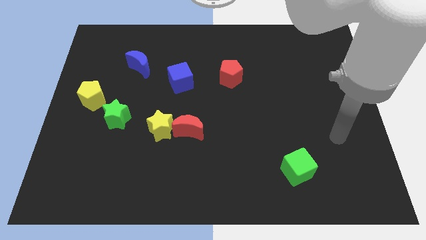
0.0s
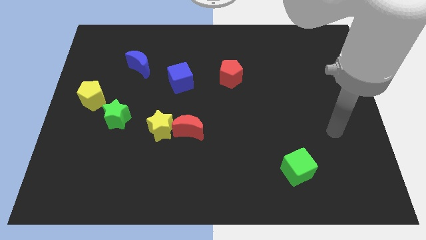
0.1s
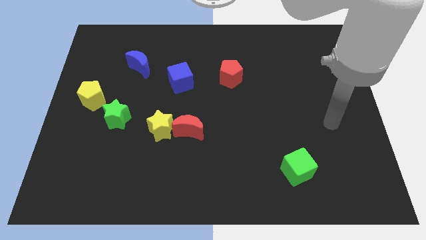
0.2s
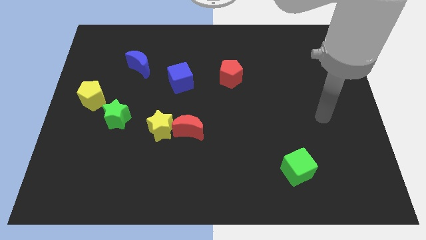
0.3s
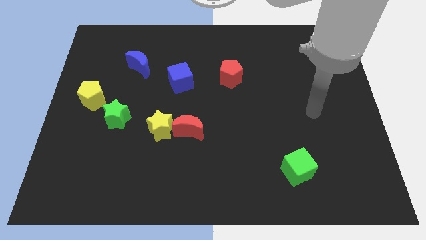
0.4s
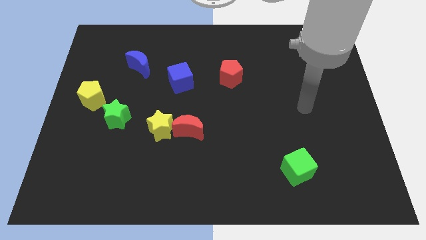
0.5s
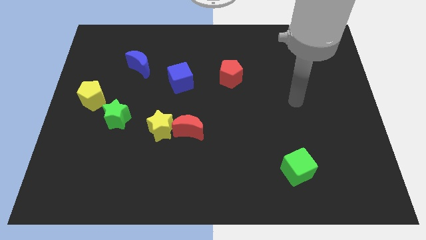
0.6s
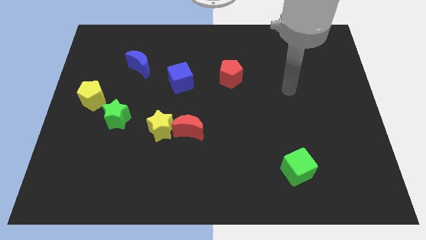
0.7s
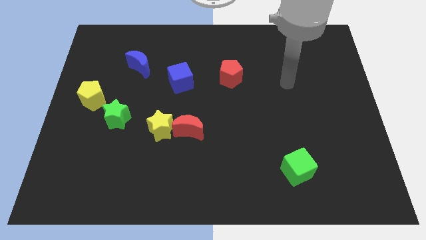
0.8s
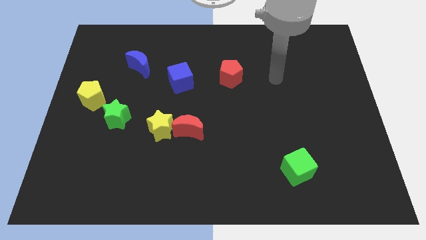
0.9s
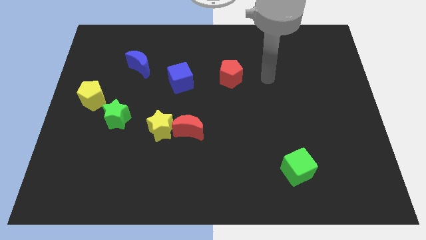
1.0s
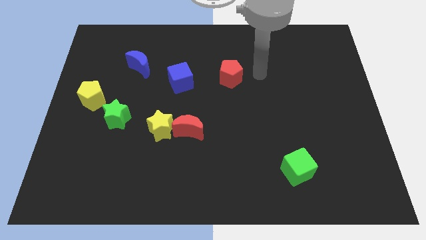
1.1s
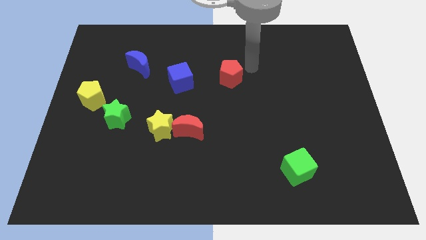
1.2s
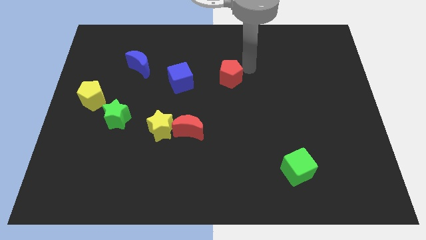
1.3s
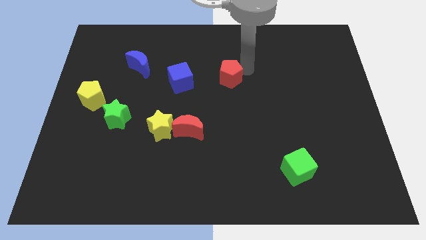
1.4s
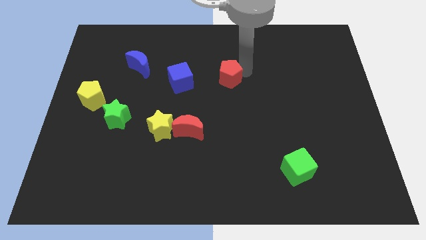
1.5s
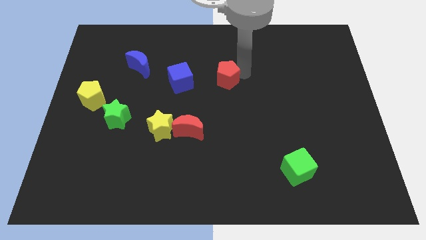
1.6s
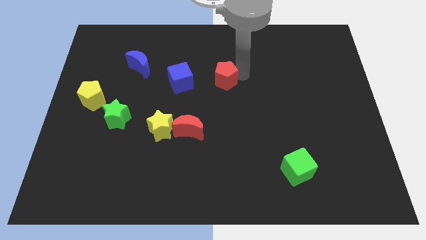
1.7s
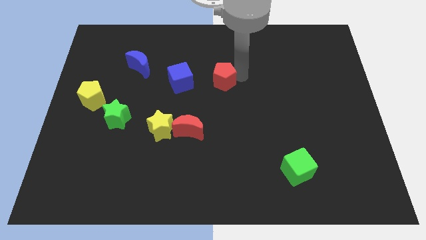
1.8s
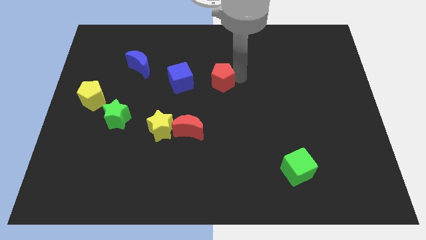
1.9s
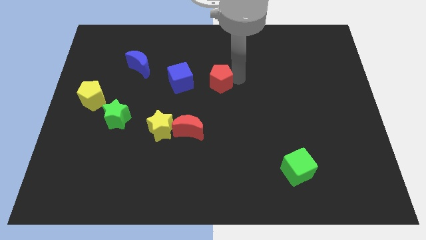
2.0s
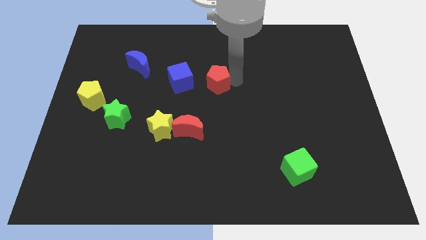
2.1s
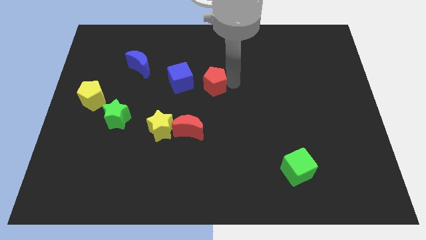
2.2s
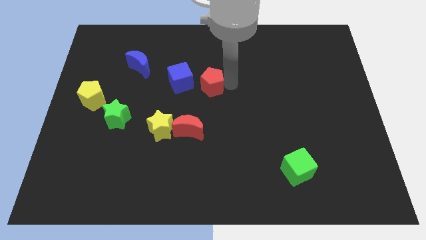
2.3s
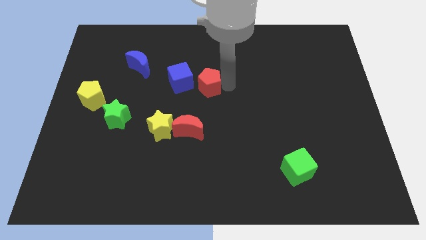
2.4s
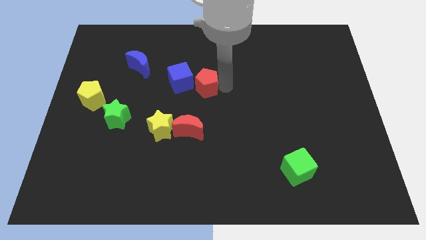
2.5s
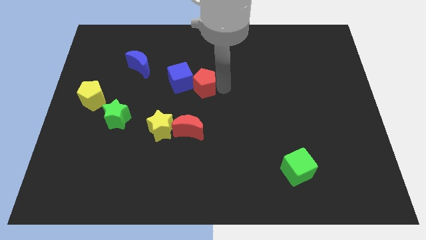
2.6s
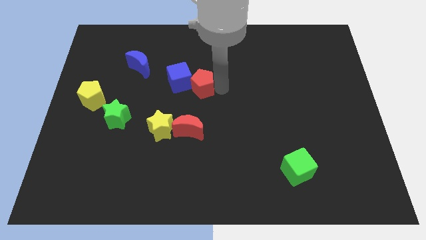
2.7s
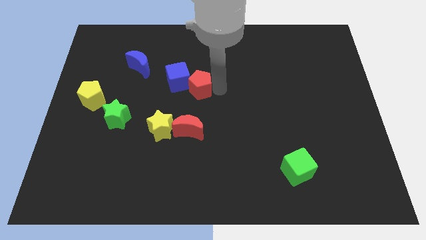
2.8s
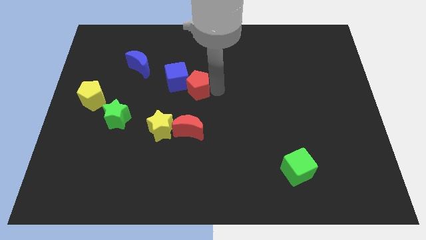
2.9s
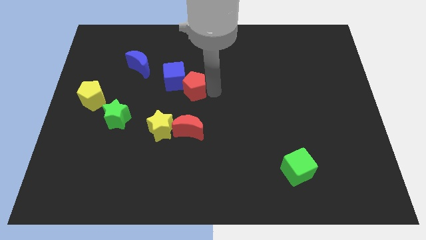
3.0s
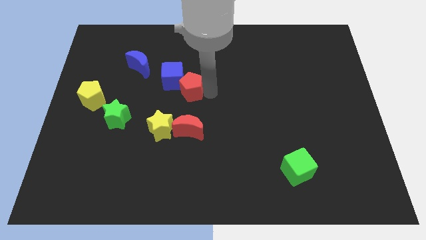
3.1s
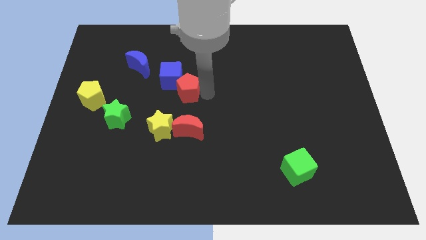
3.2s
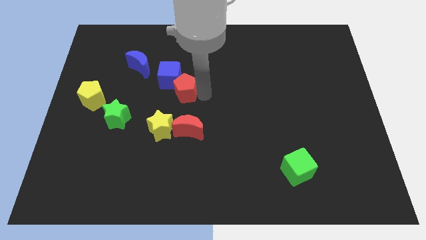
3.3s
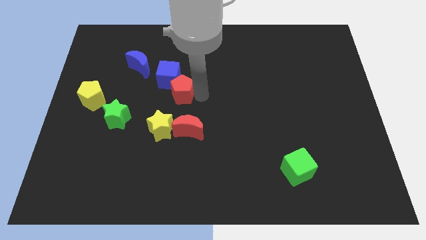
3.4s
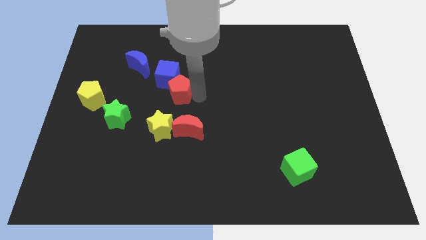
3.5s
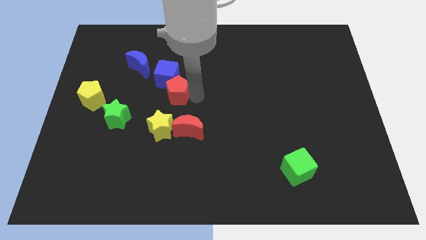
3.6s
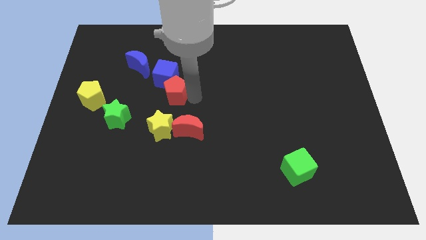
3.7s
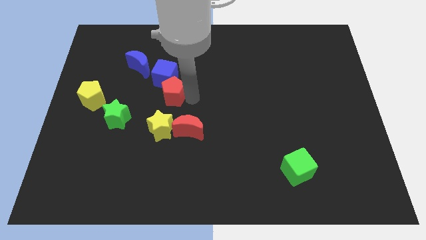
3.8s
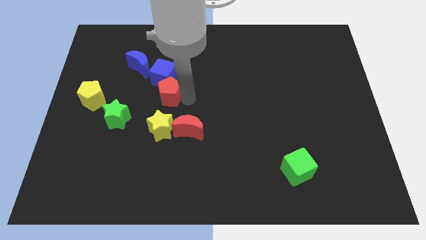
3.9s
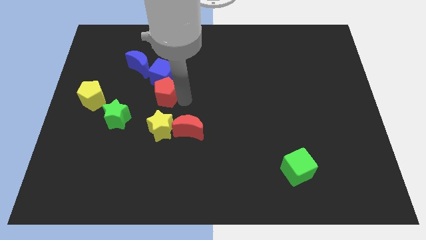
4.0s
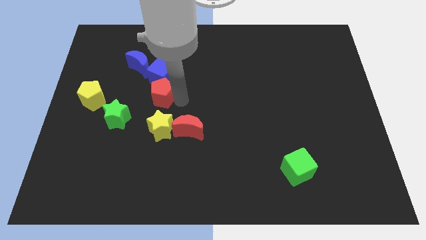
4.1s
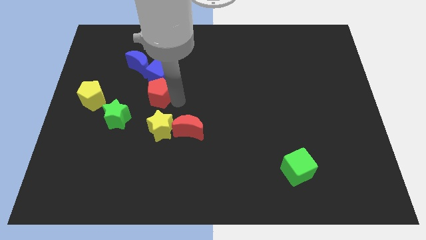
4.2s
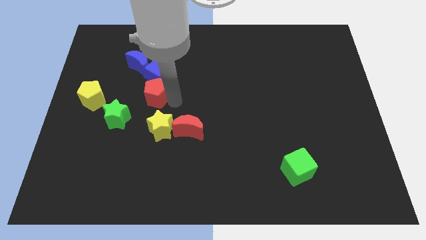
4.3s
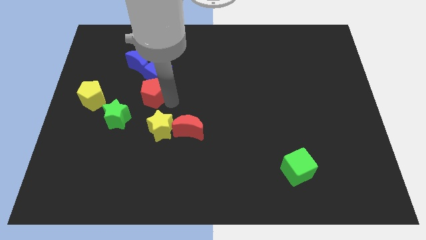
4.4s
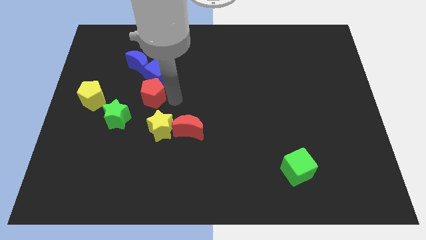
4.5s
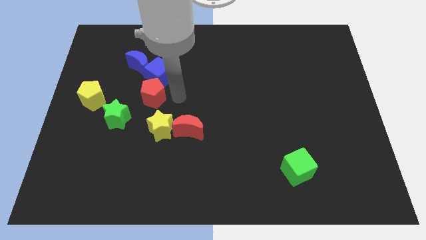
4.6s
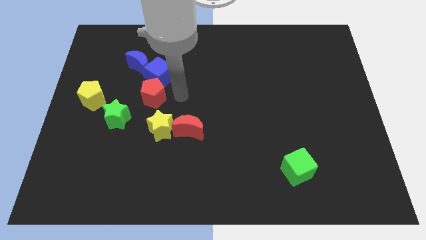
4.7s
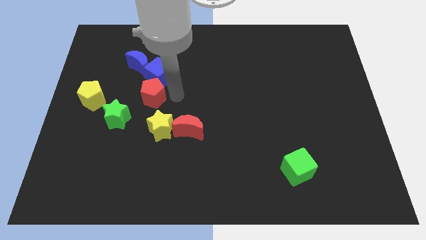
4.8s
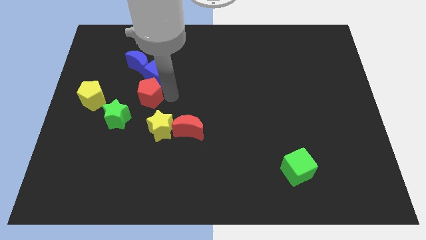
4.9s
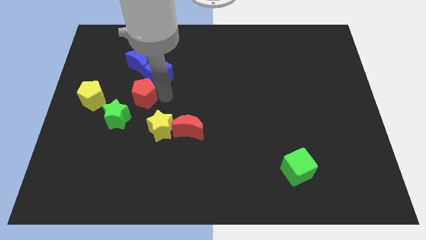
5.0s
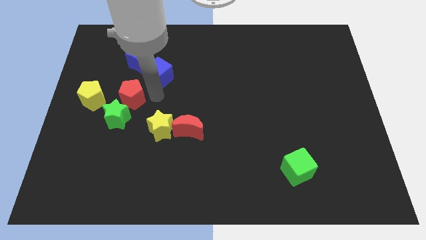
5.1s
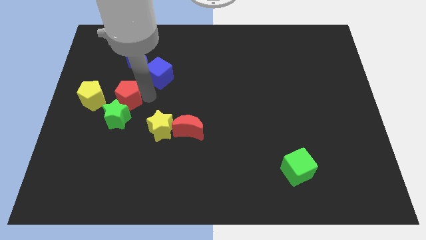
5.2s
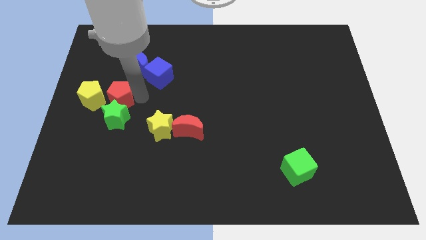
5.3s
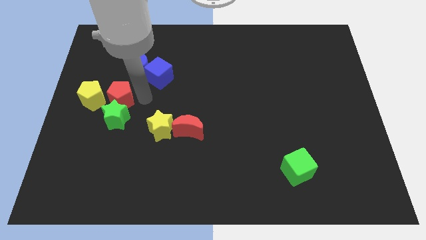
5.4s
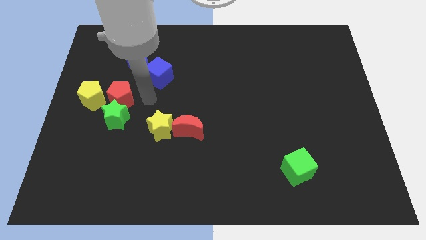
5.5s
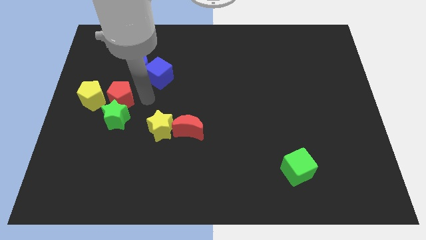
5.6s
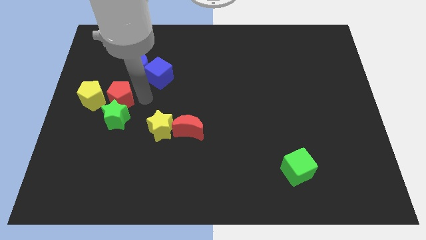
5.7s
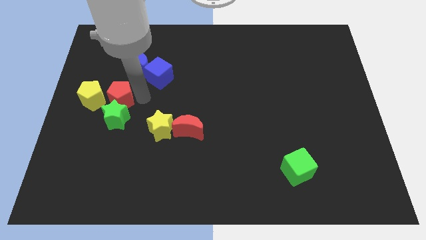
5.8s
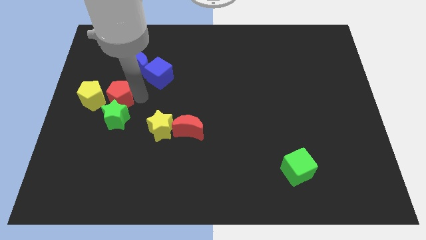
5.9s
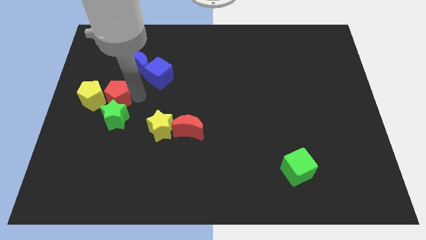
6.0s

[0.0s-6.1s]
put the red pentagon to the yellow pentagon

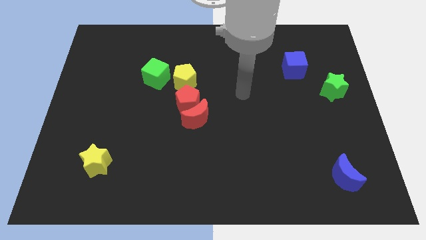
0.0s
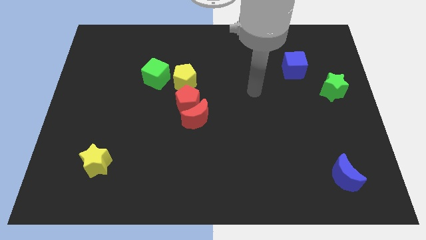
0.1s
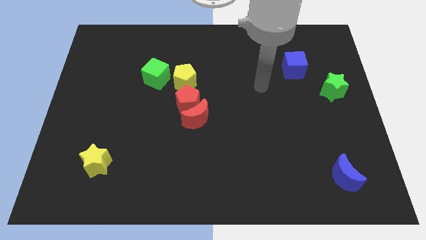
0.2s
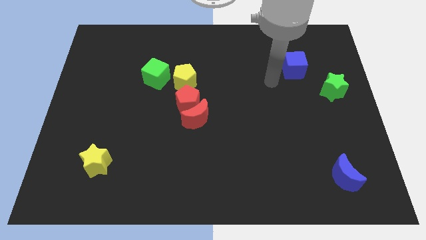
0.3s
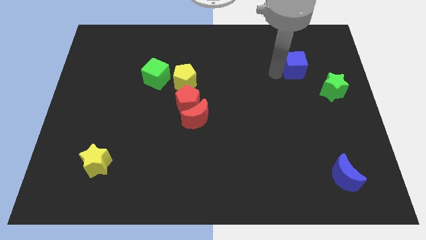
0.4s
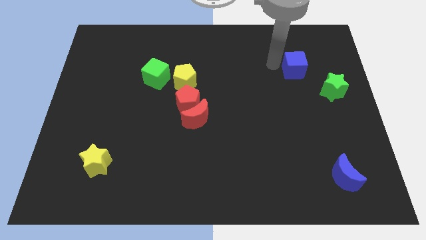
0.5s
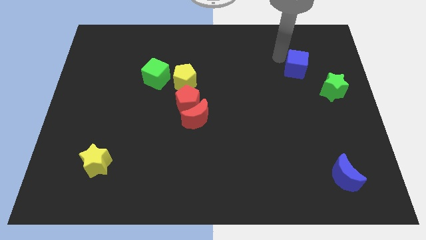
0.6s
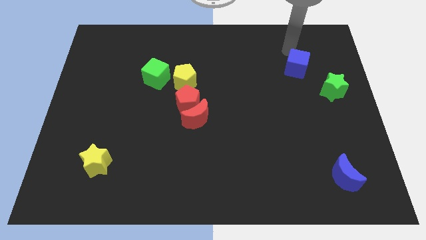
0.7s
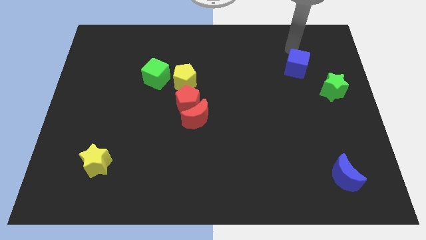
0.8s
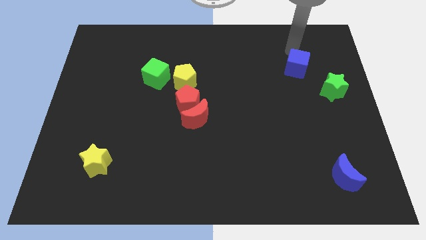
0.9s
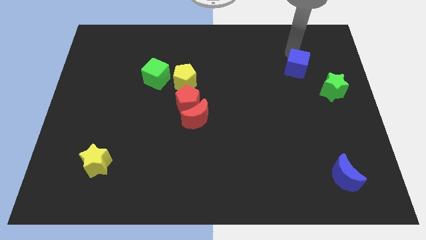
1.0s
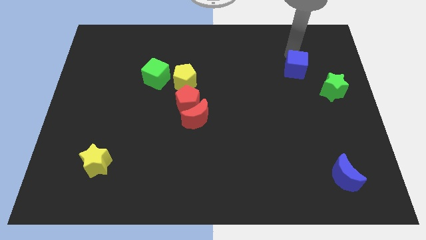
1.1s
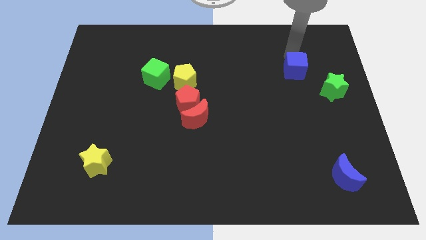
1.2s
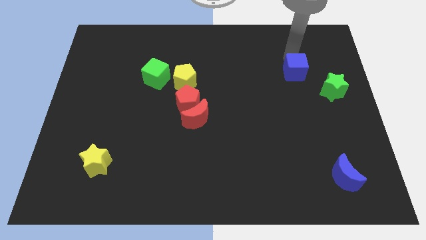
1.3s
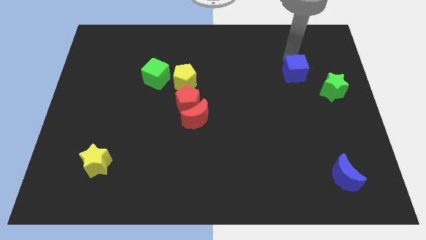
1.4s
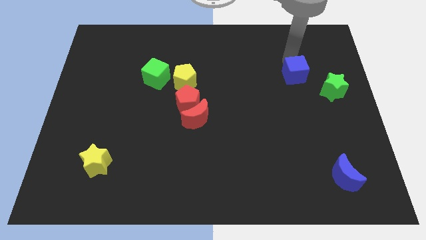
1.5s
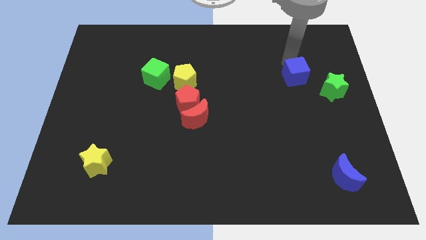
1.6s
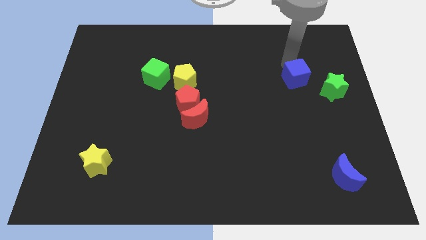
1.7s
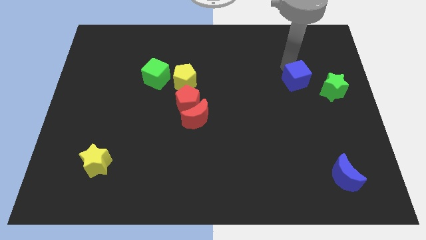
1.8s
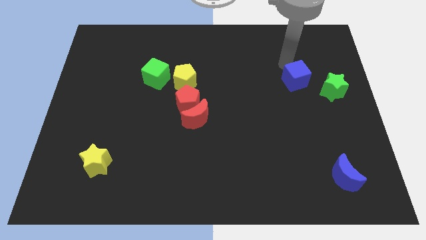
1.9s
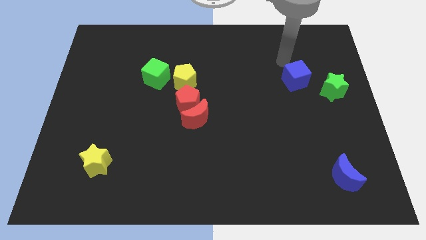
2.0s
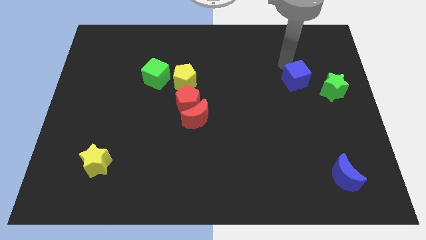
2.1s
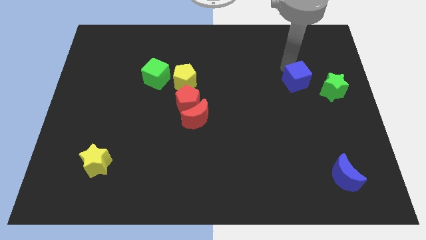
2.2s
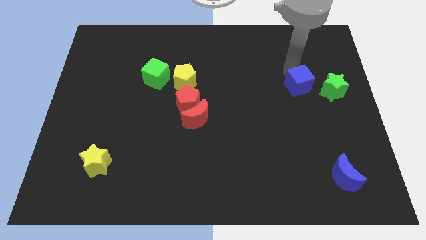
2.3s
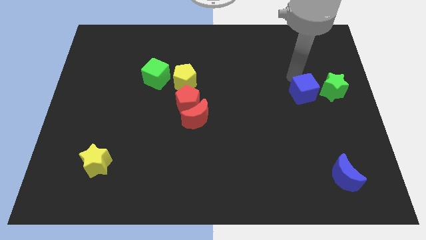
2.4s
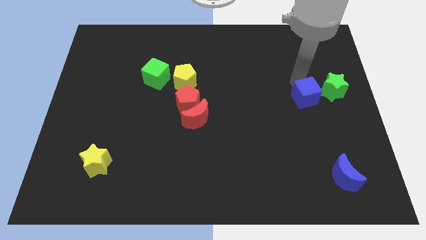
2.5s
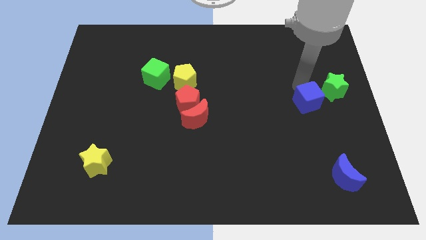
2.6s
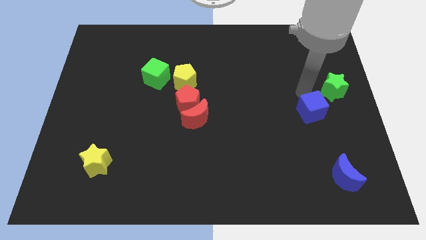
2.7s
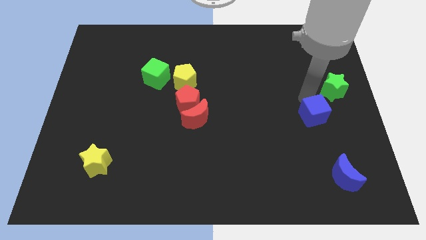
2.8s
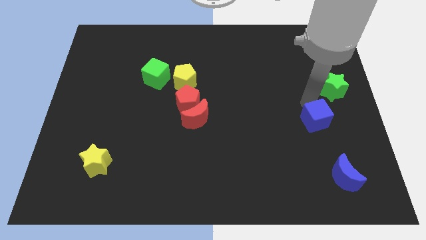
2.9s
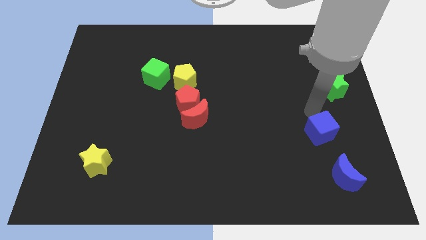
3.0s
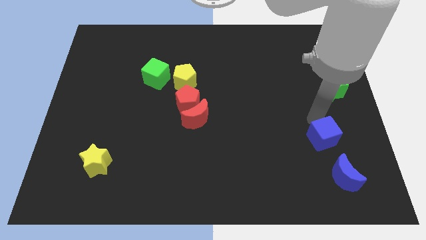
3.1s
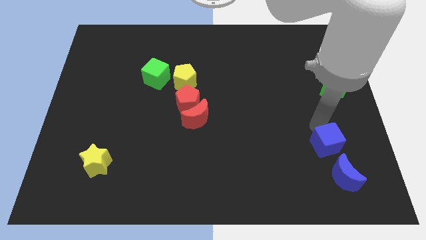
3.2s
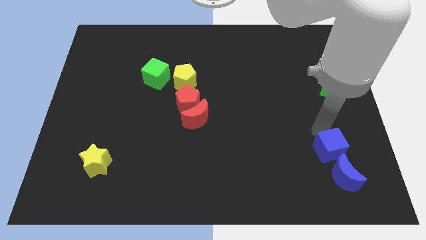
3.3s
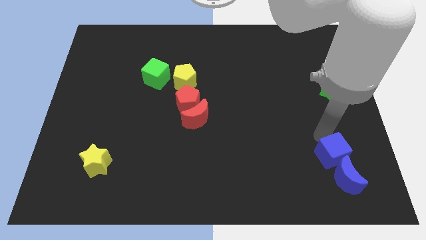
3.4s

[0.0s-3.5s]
slide the blue cube next to the blue moon
